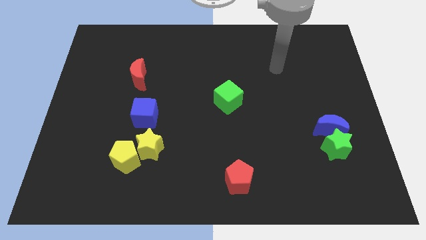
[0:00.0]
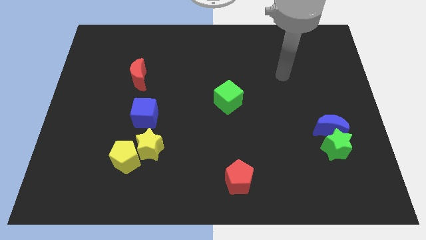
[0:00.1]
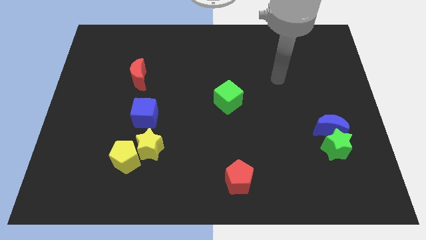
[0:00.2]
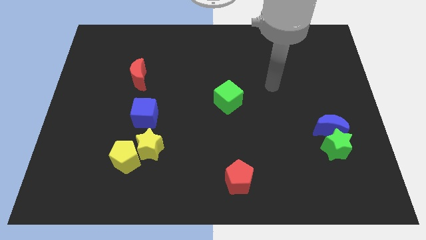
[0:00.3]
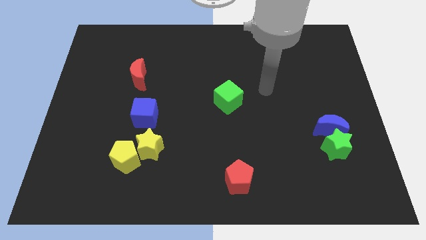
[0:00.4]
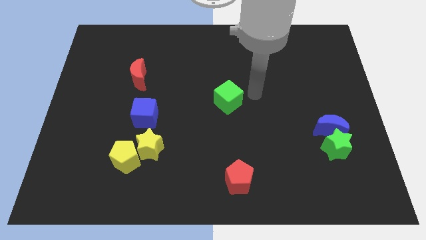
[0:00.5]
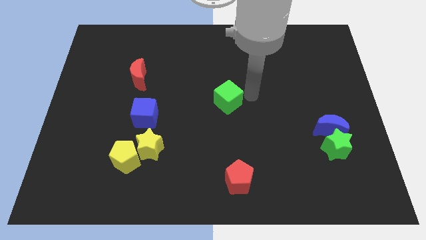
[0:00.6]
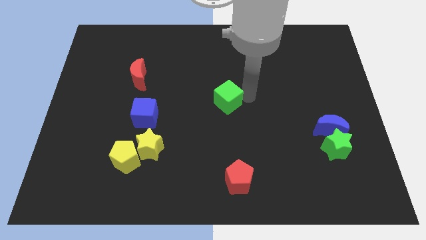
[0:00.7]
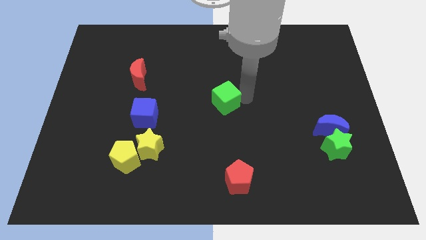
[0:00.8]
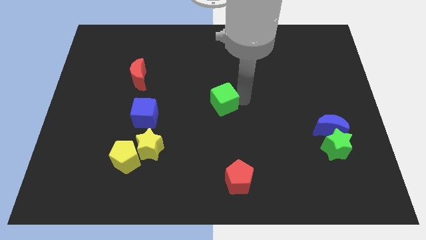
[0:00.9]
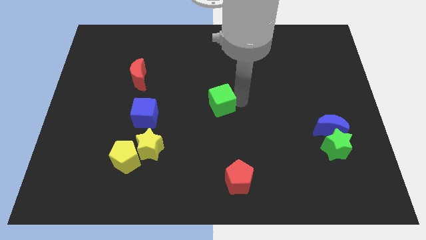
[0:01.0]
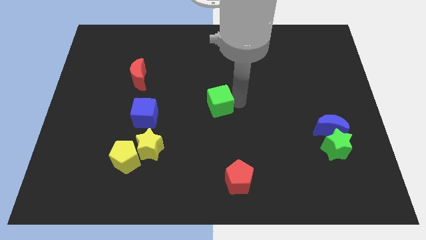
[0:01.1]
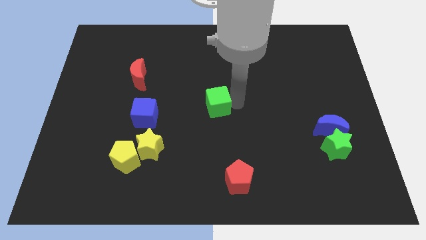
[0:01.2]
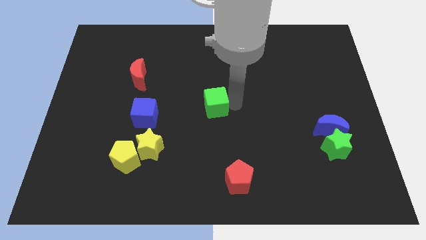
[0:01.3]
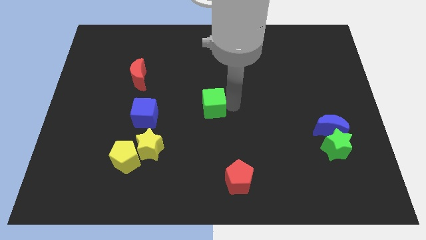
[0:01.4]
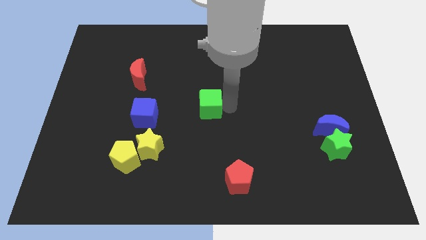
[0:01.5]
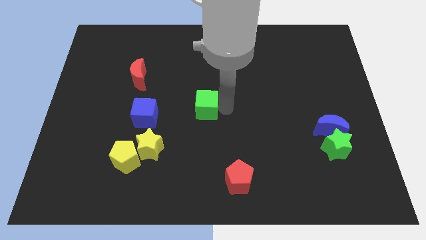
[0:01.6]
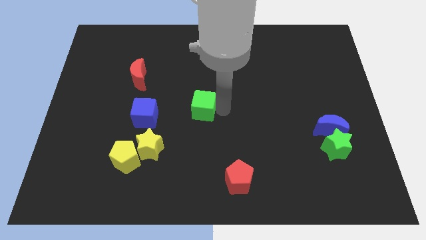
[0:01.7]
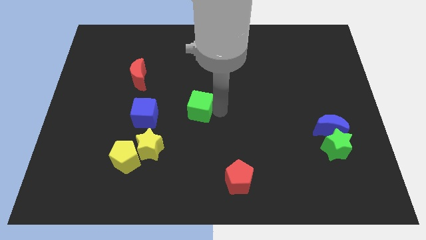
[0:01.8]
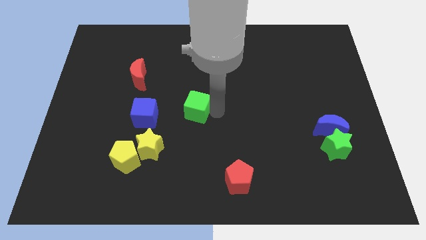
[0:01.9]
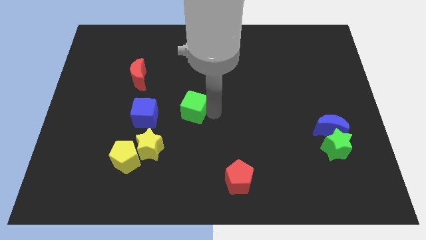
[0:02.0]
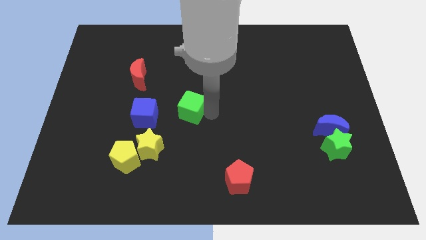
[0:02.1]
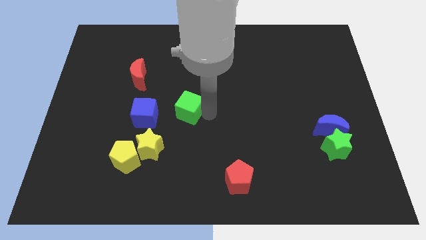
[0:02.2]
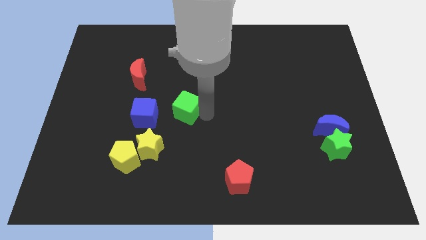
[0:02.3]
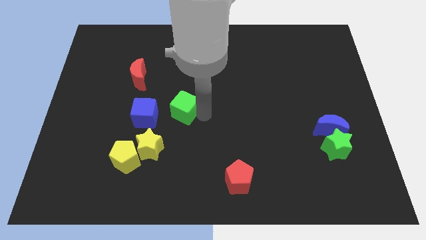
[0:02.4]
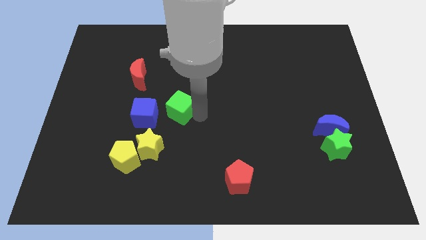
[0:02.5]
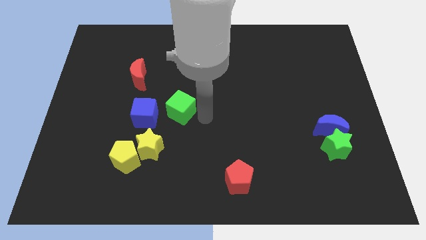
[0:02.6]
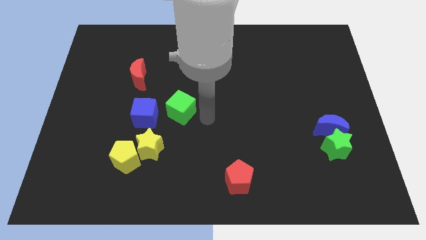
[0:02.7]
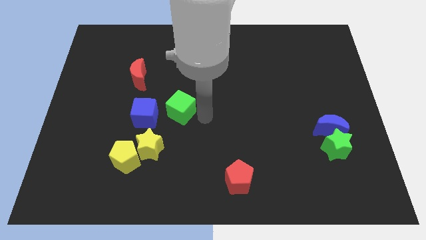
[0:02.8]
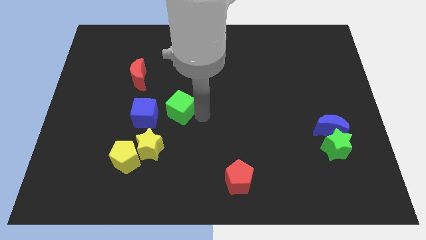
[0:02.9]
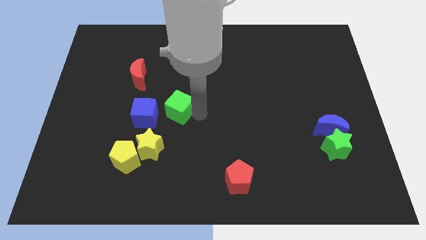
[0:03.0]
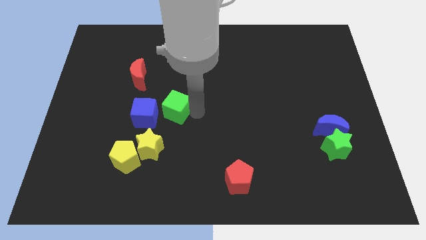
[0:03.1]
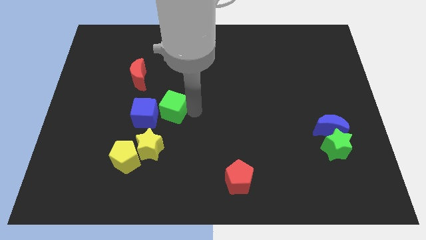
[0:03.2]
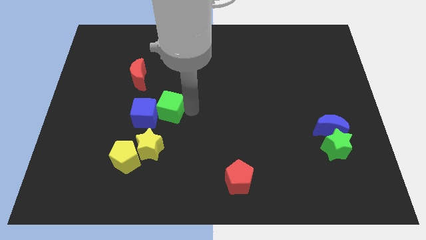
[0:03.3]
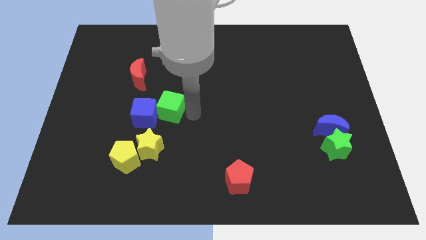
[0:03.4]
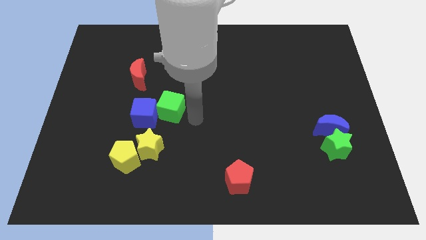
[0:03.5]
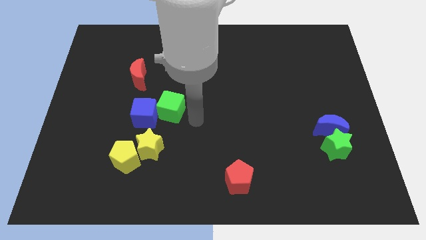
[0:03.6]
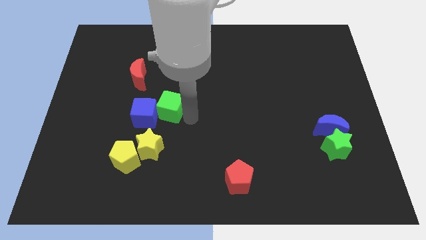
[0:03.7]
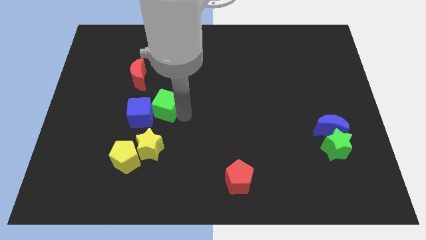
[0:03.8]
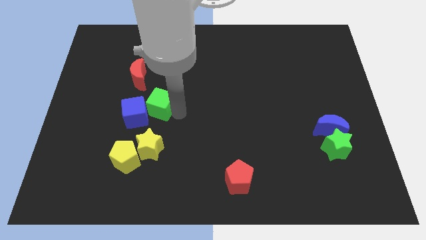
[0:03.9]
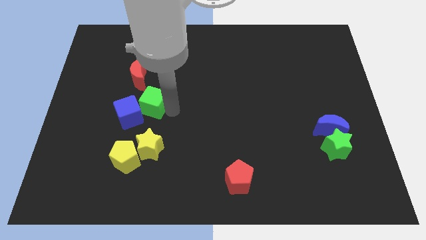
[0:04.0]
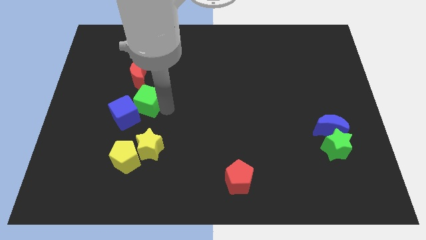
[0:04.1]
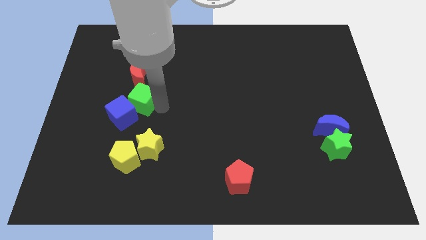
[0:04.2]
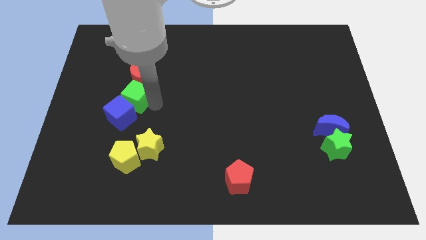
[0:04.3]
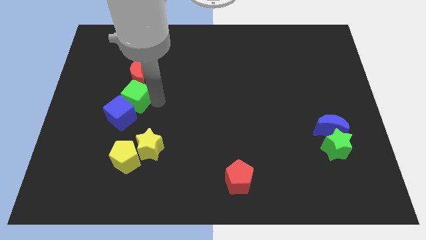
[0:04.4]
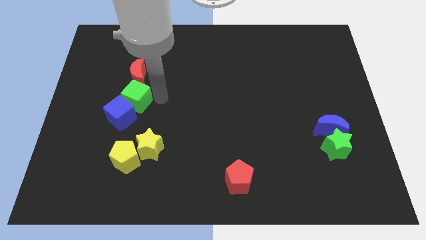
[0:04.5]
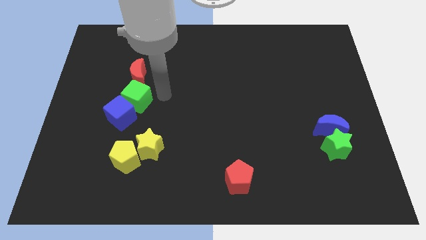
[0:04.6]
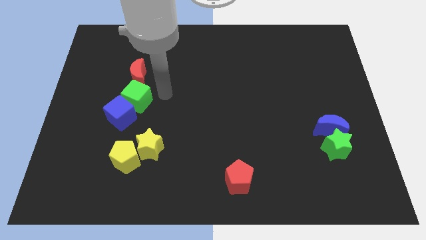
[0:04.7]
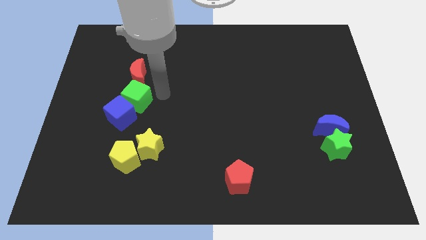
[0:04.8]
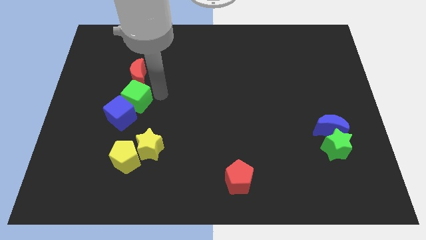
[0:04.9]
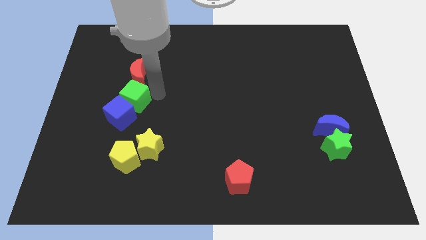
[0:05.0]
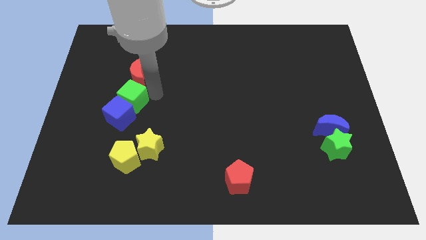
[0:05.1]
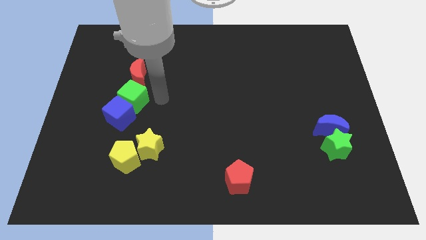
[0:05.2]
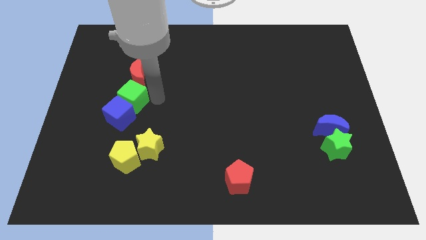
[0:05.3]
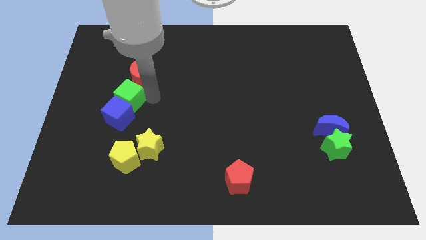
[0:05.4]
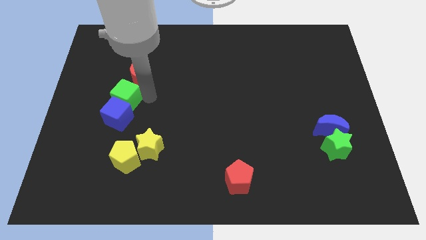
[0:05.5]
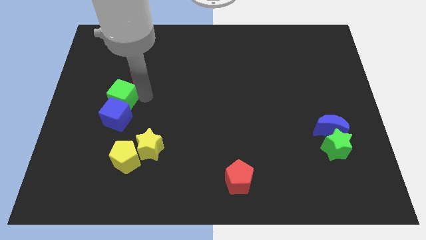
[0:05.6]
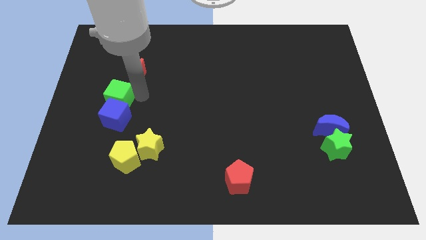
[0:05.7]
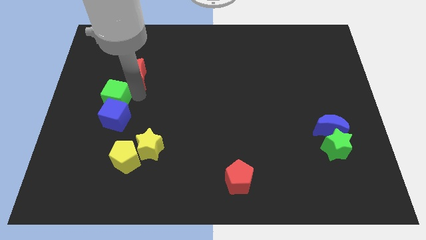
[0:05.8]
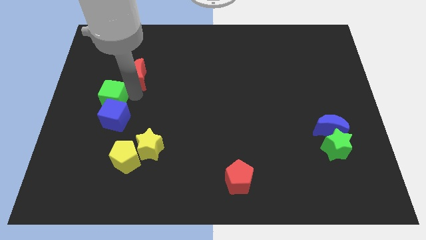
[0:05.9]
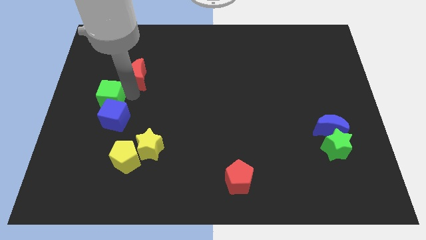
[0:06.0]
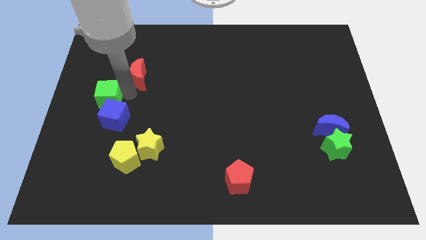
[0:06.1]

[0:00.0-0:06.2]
move the green cube to the left side of the board
